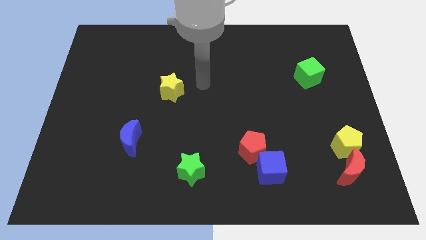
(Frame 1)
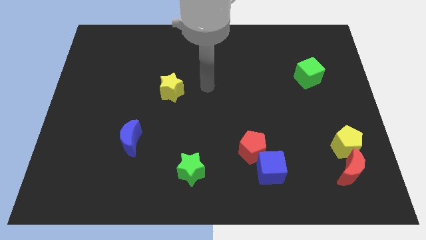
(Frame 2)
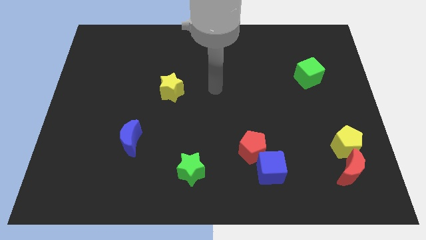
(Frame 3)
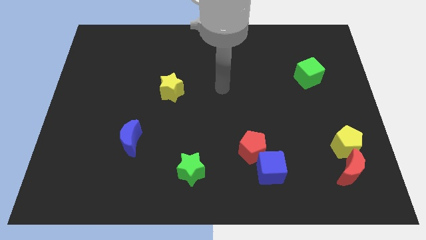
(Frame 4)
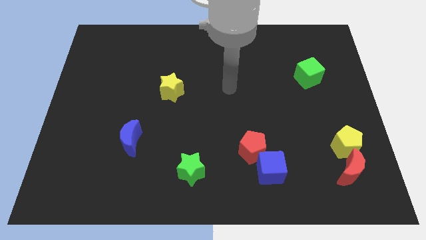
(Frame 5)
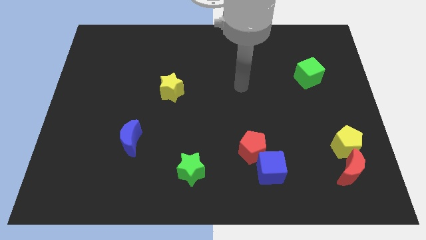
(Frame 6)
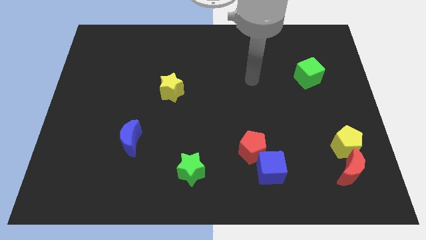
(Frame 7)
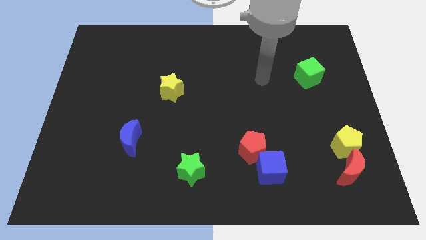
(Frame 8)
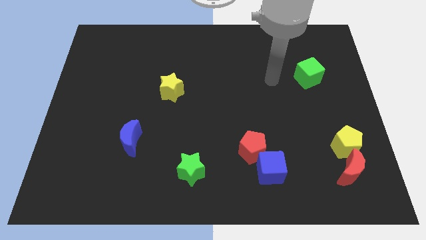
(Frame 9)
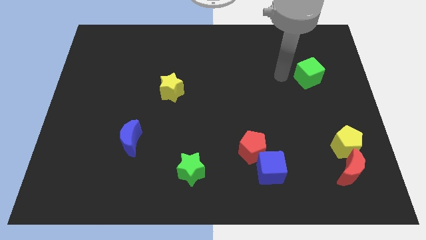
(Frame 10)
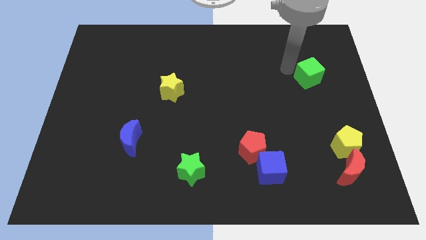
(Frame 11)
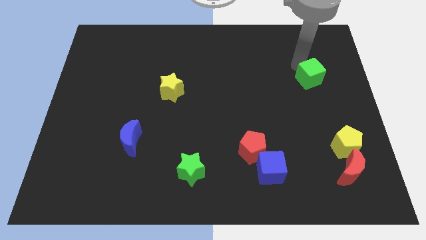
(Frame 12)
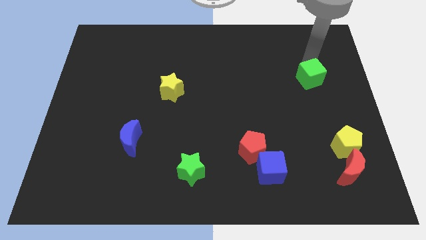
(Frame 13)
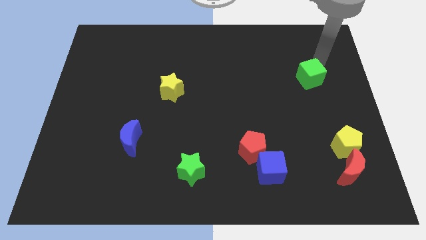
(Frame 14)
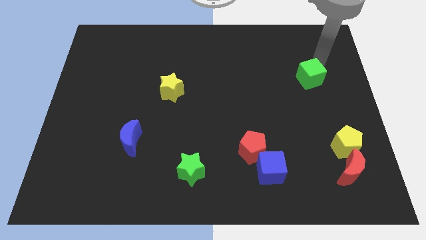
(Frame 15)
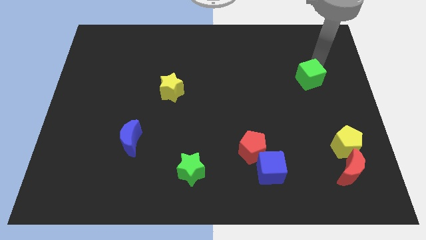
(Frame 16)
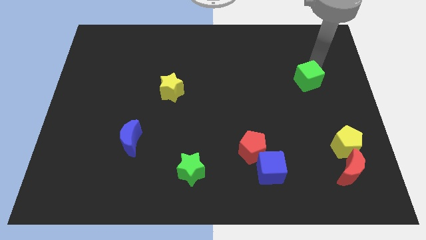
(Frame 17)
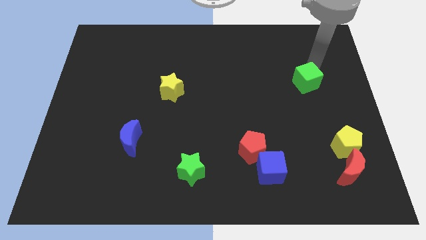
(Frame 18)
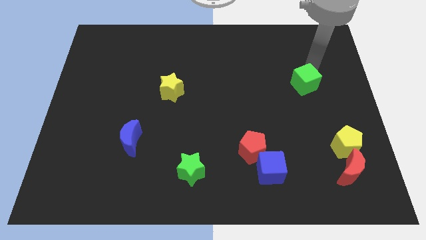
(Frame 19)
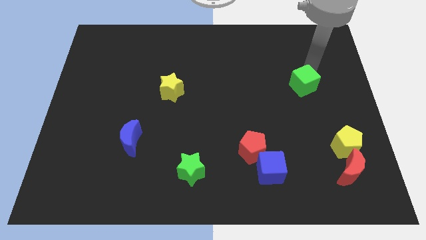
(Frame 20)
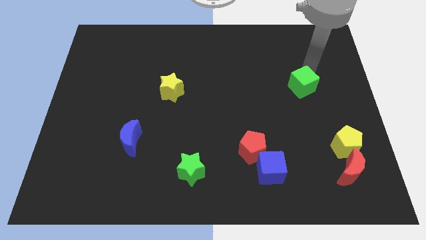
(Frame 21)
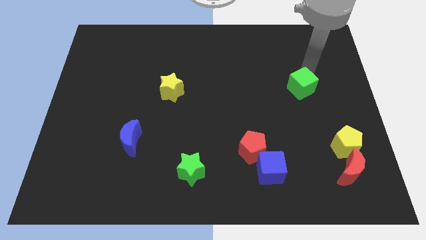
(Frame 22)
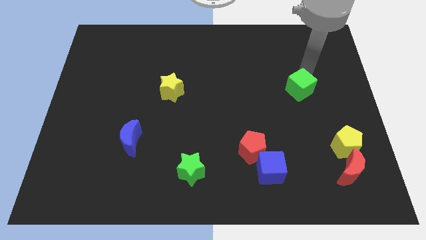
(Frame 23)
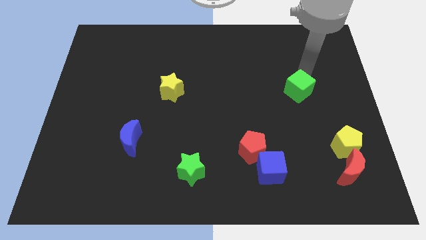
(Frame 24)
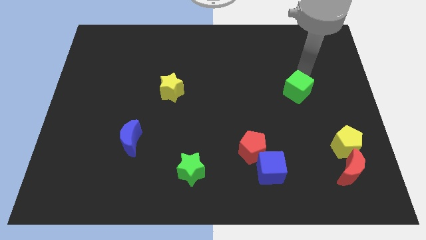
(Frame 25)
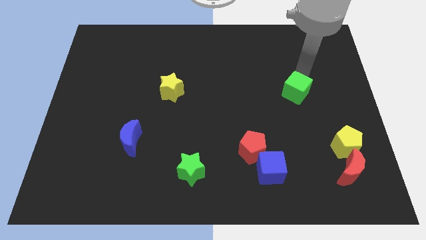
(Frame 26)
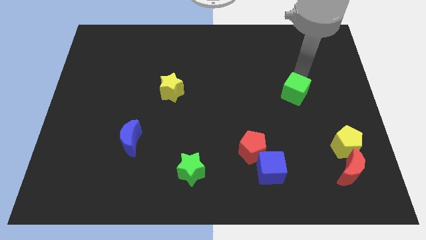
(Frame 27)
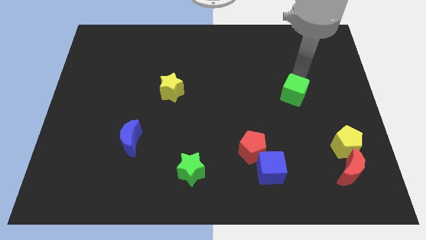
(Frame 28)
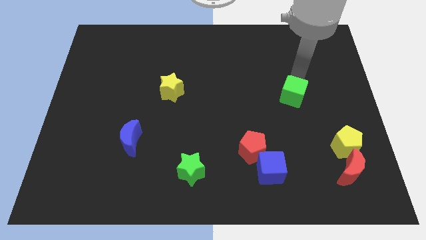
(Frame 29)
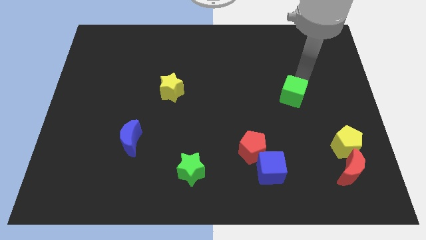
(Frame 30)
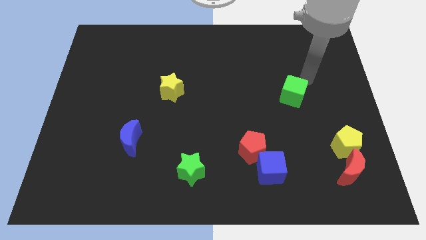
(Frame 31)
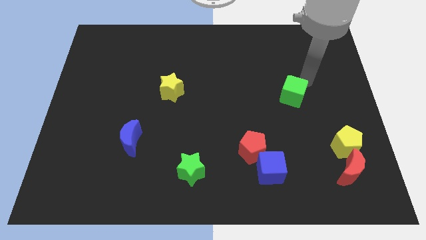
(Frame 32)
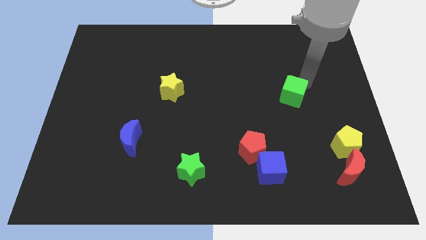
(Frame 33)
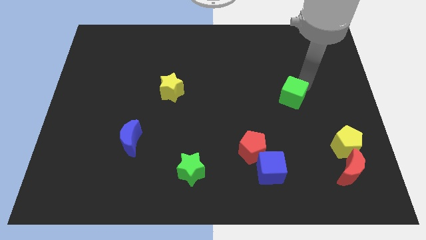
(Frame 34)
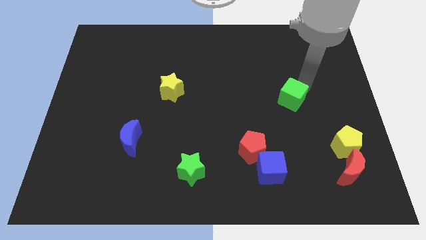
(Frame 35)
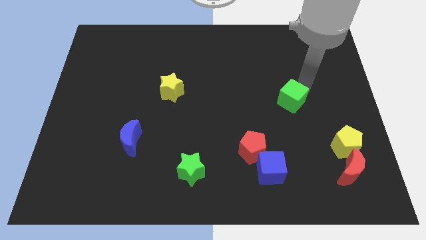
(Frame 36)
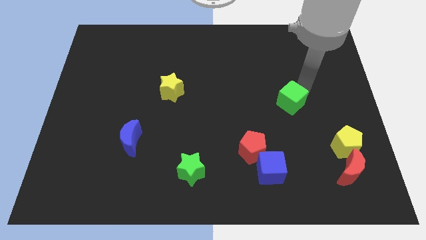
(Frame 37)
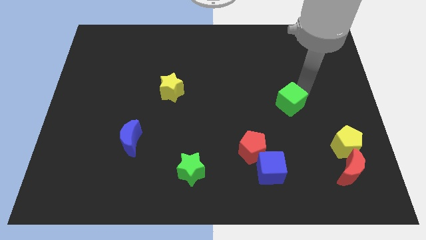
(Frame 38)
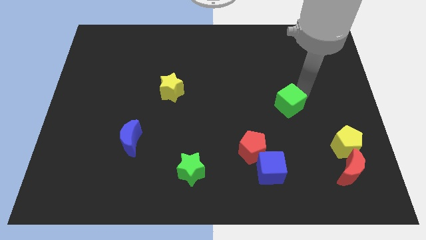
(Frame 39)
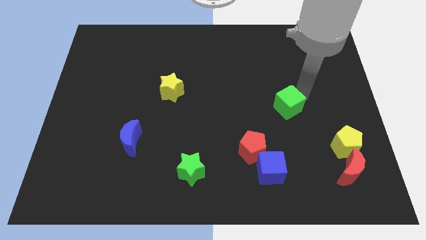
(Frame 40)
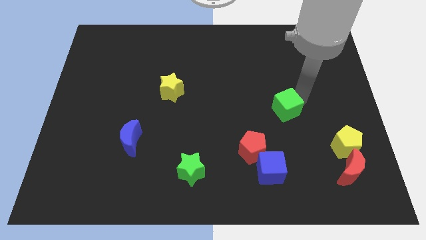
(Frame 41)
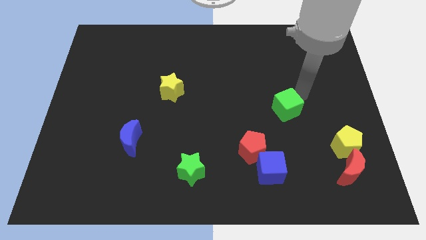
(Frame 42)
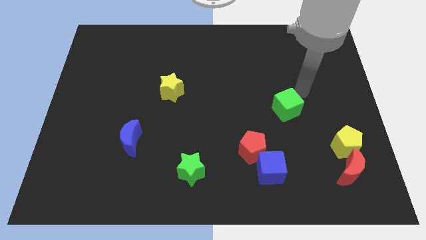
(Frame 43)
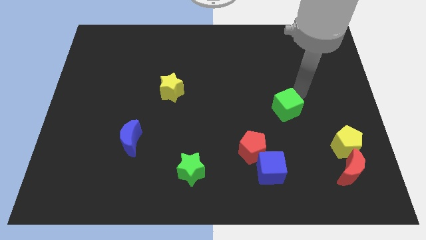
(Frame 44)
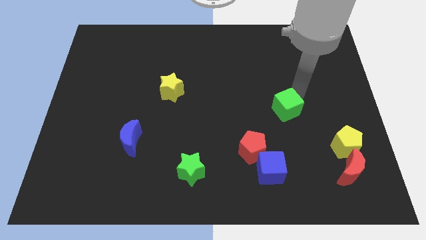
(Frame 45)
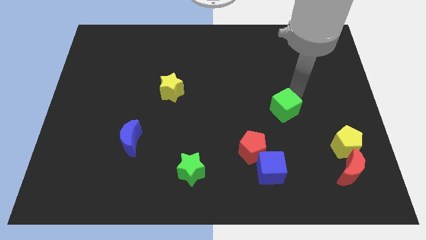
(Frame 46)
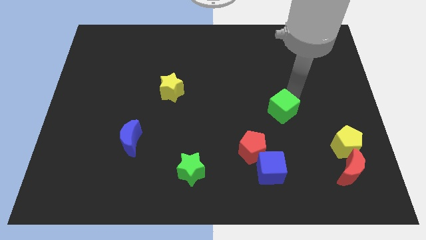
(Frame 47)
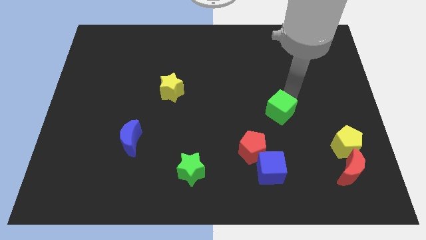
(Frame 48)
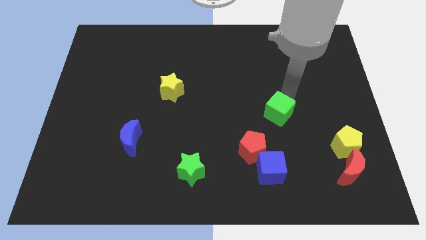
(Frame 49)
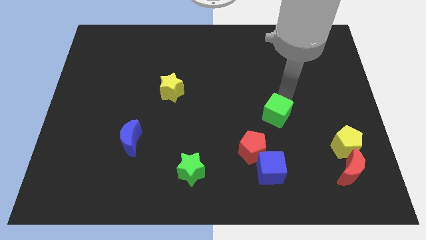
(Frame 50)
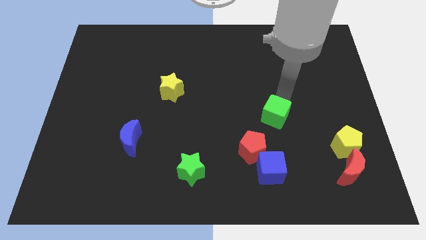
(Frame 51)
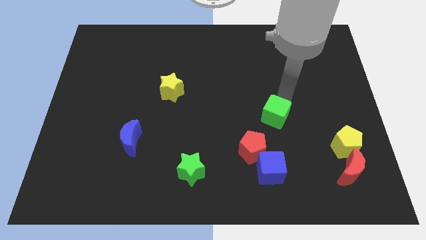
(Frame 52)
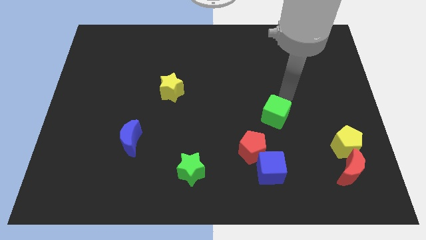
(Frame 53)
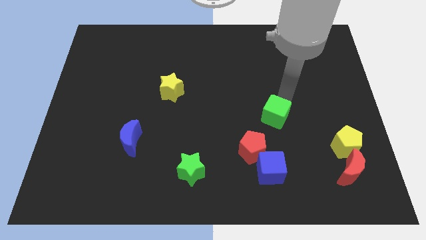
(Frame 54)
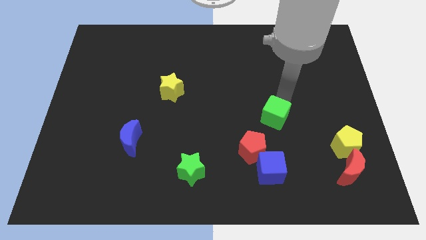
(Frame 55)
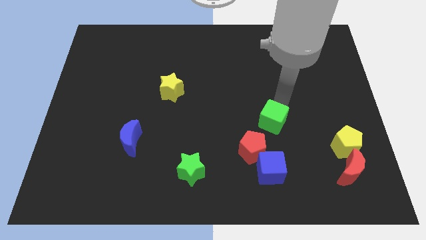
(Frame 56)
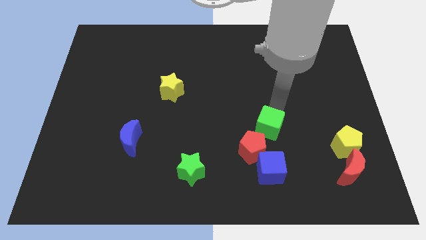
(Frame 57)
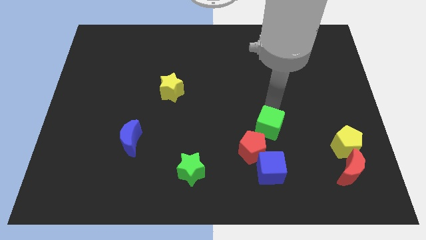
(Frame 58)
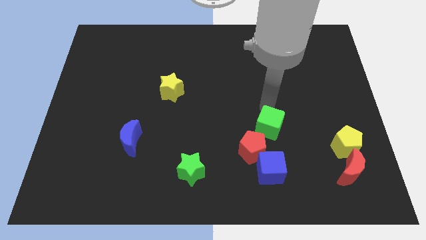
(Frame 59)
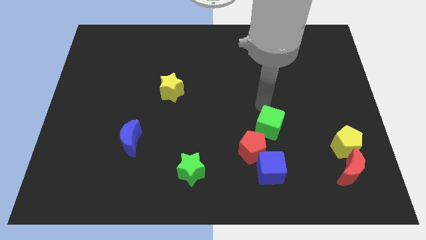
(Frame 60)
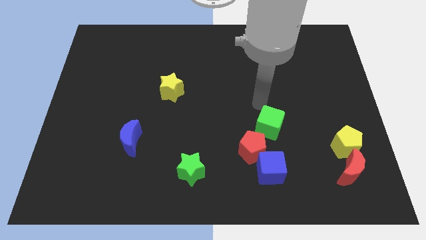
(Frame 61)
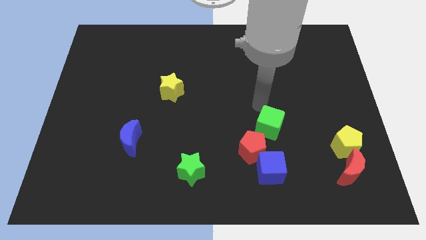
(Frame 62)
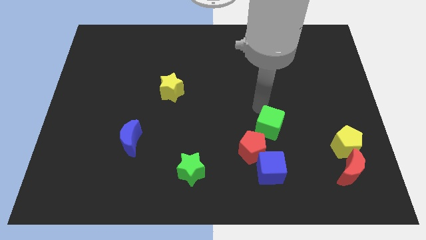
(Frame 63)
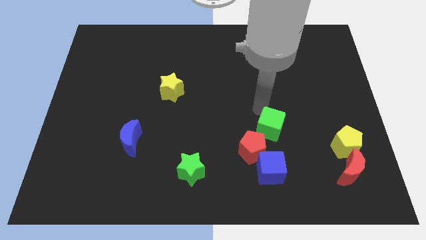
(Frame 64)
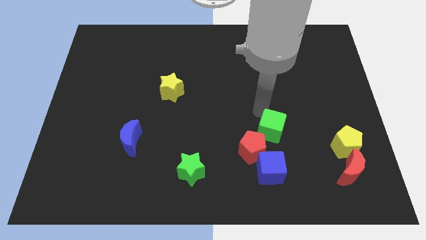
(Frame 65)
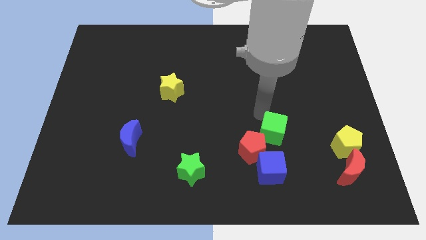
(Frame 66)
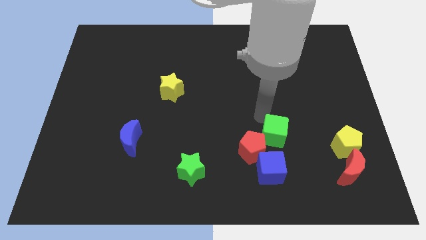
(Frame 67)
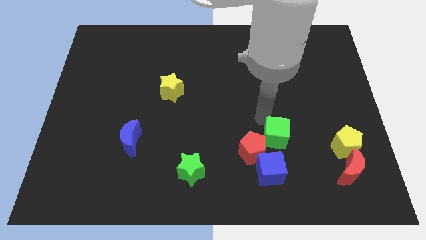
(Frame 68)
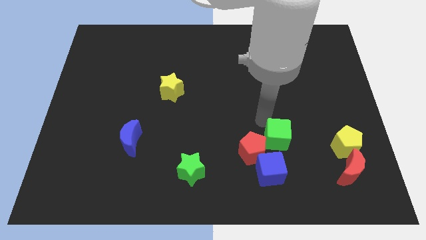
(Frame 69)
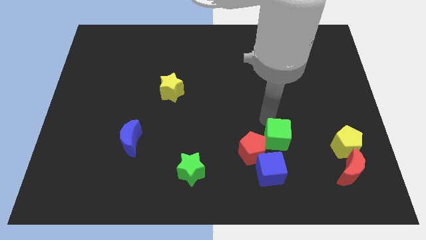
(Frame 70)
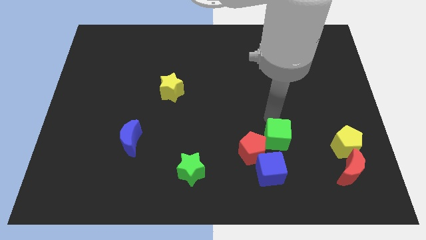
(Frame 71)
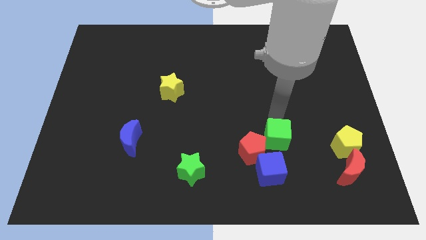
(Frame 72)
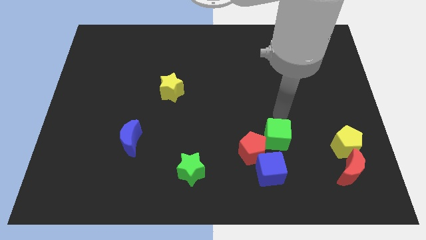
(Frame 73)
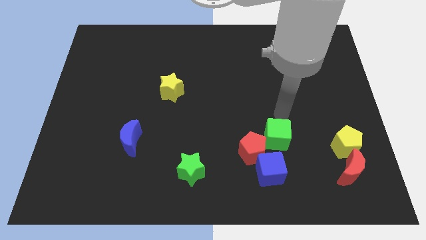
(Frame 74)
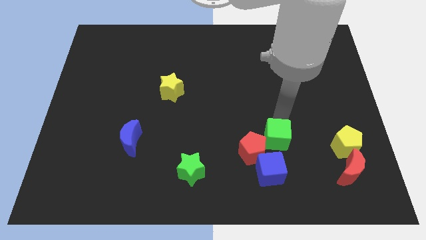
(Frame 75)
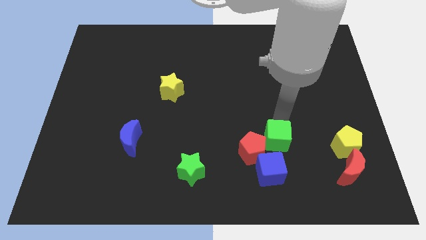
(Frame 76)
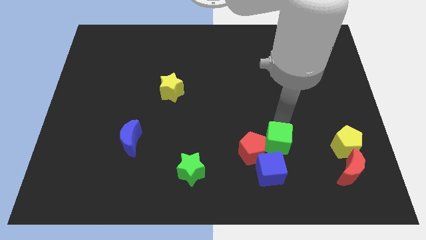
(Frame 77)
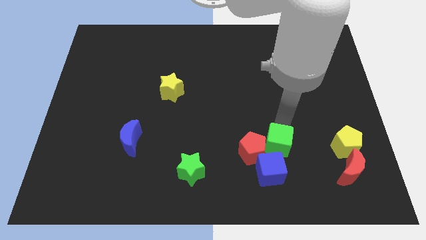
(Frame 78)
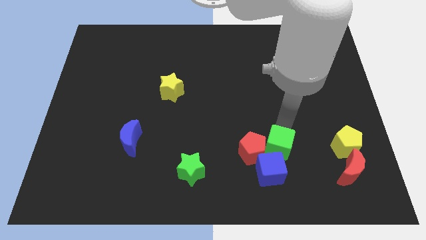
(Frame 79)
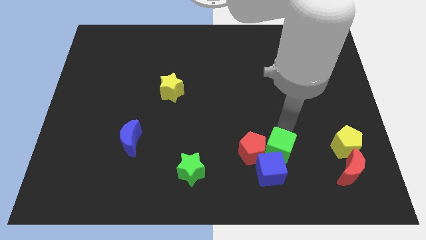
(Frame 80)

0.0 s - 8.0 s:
move the green cube close to the blue cube
